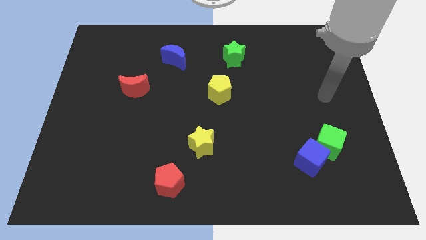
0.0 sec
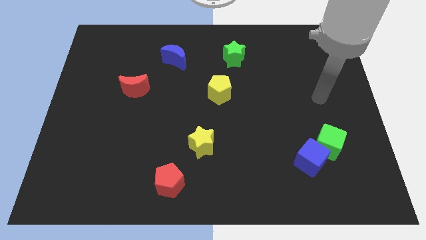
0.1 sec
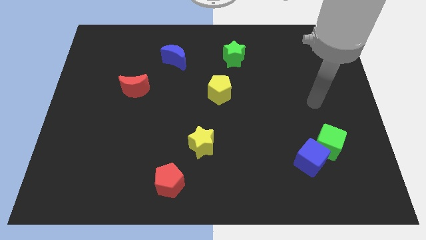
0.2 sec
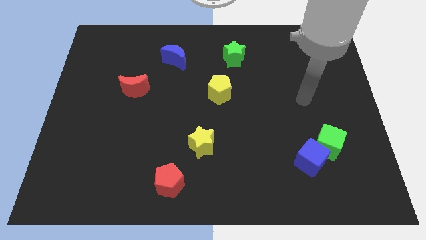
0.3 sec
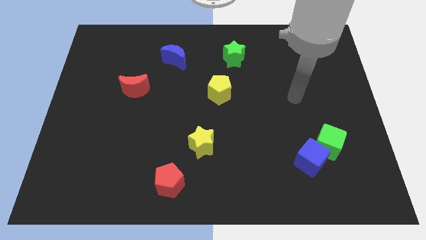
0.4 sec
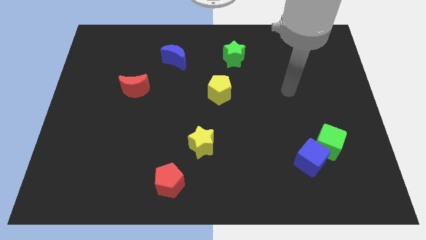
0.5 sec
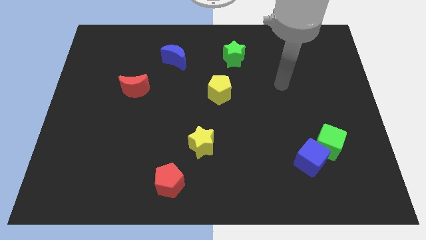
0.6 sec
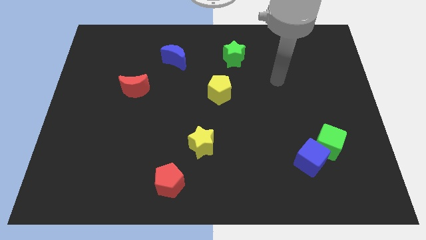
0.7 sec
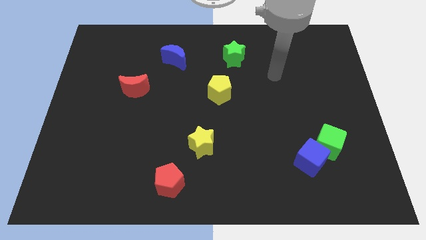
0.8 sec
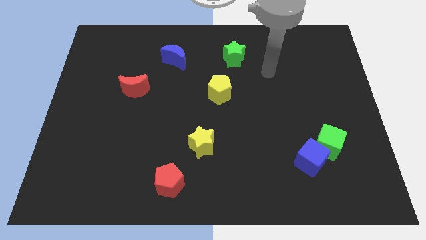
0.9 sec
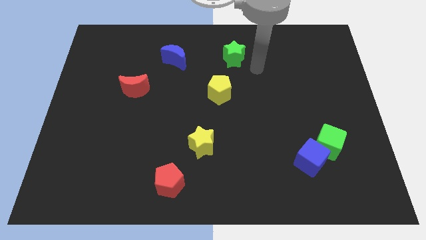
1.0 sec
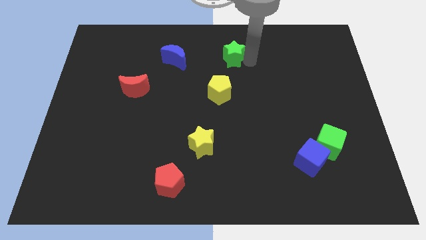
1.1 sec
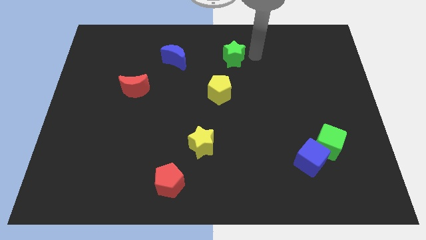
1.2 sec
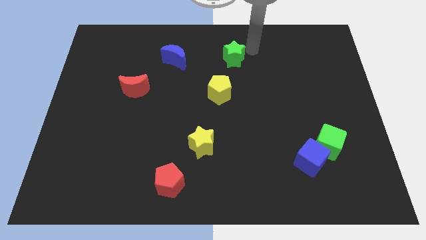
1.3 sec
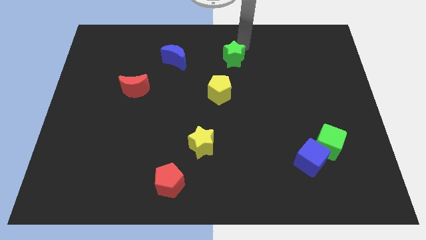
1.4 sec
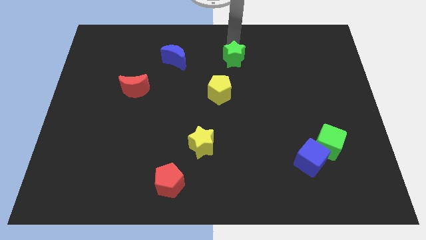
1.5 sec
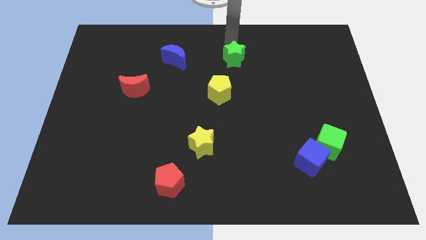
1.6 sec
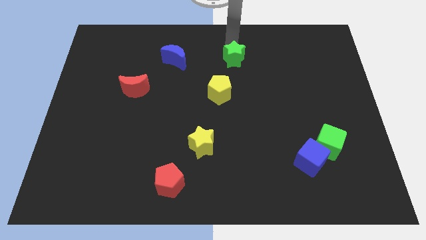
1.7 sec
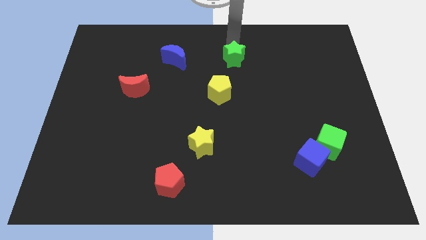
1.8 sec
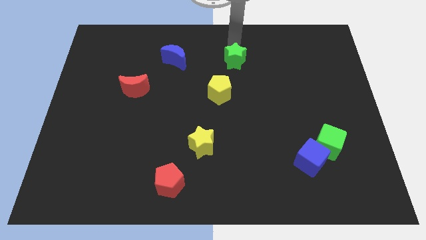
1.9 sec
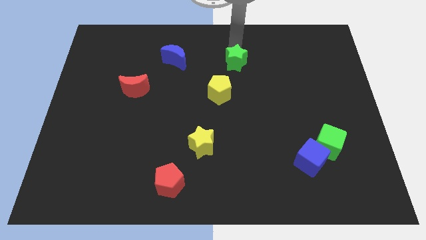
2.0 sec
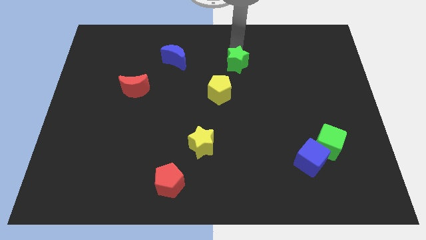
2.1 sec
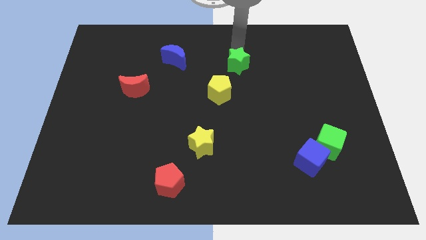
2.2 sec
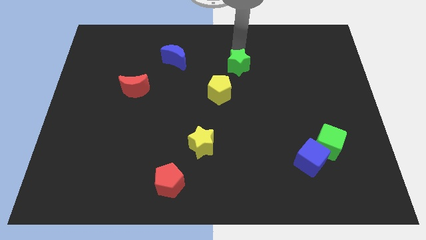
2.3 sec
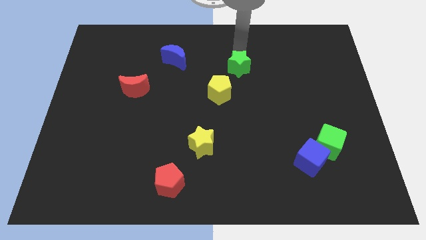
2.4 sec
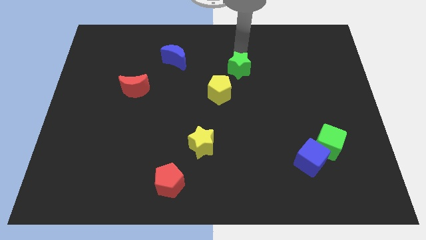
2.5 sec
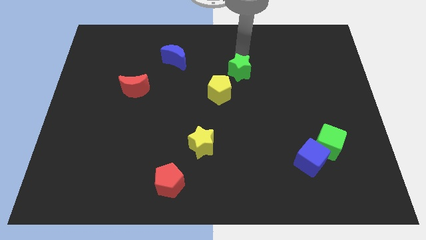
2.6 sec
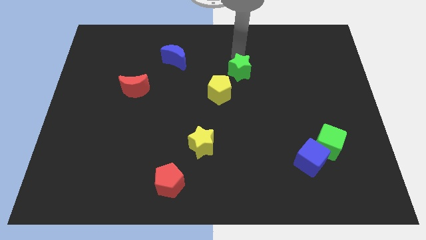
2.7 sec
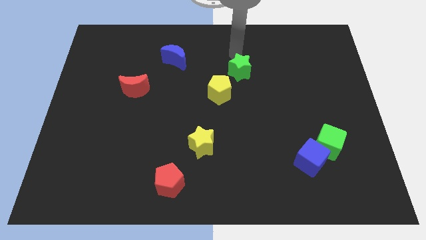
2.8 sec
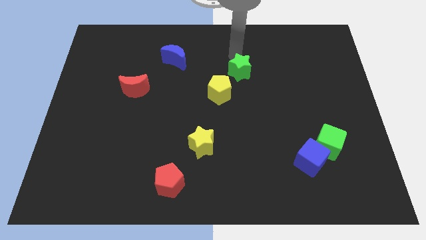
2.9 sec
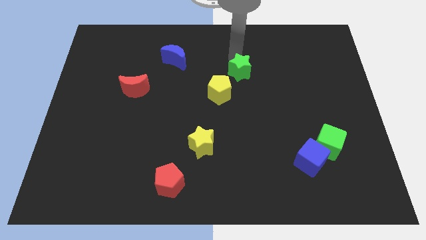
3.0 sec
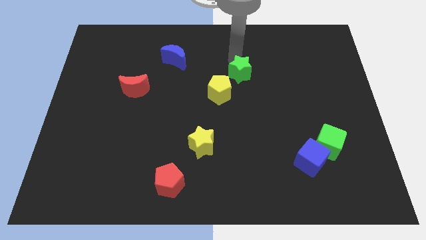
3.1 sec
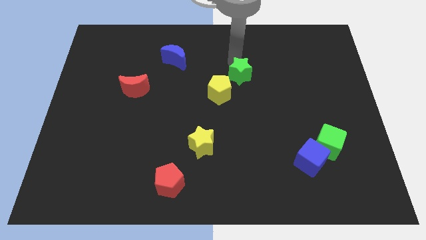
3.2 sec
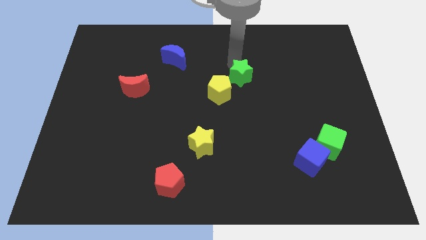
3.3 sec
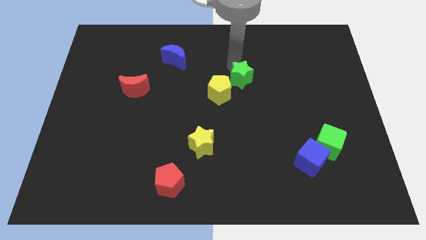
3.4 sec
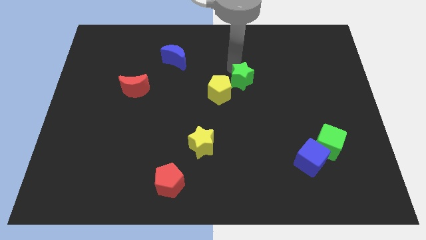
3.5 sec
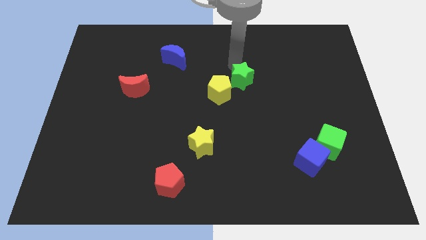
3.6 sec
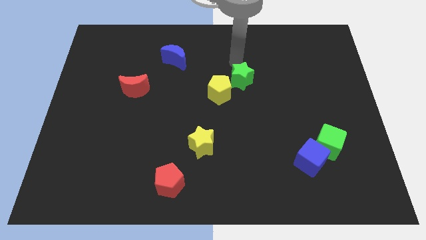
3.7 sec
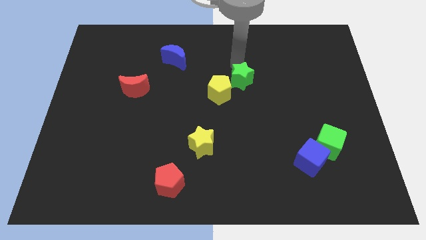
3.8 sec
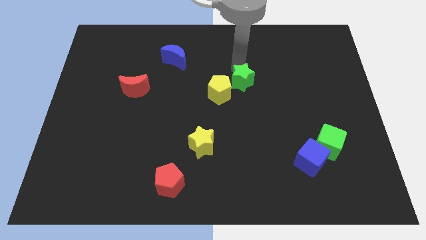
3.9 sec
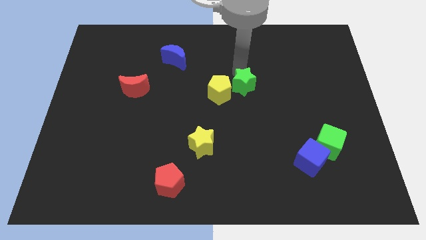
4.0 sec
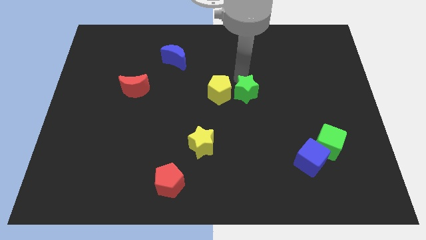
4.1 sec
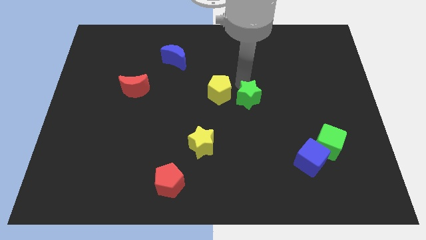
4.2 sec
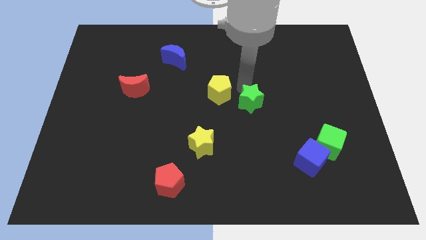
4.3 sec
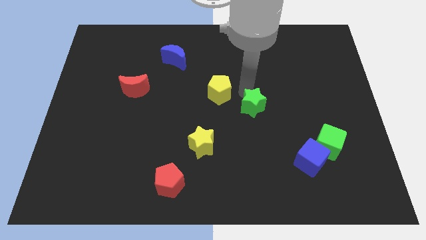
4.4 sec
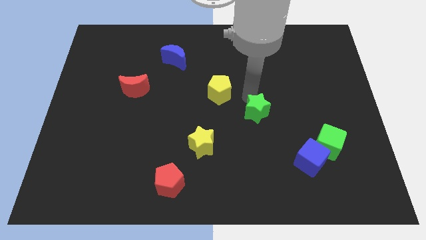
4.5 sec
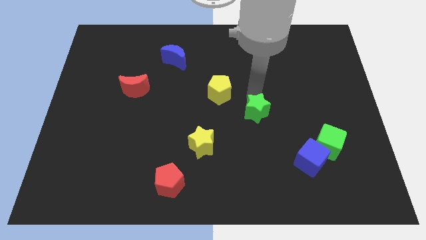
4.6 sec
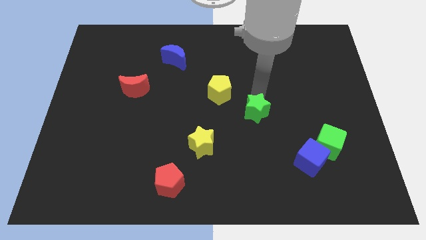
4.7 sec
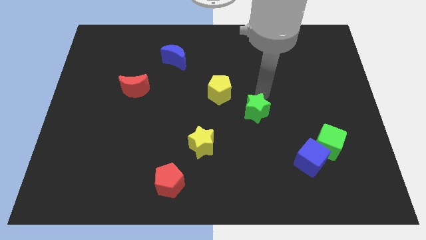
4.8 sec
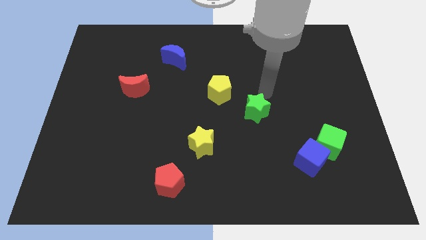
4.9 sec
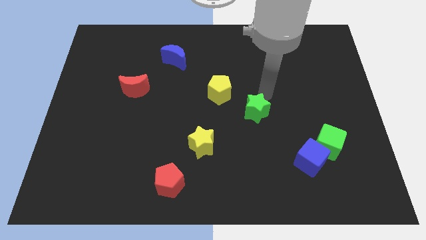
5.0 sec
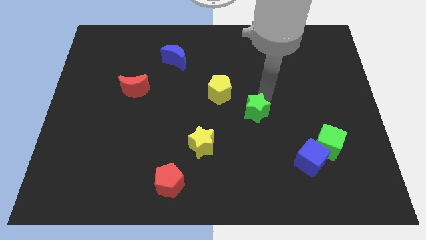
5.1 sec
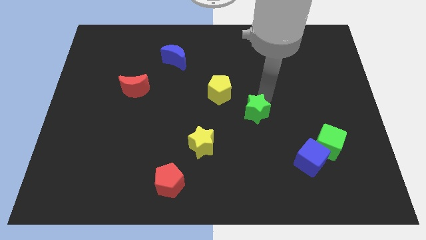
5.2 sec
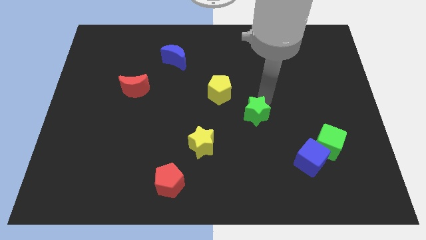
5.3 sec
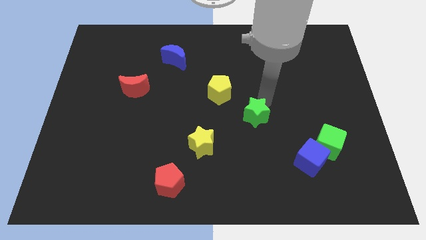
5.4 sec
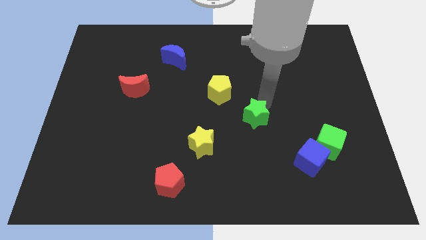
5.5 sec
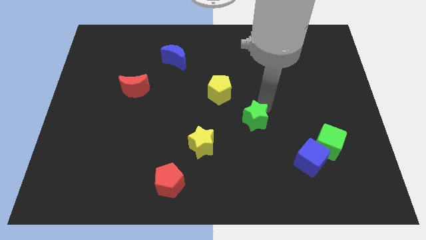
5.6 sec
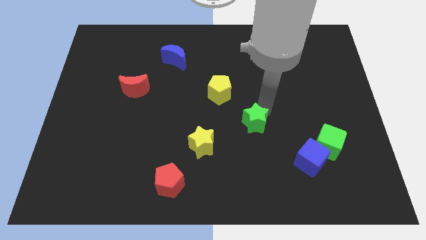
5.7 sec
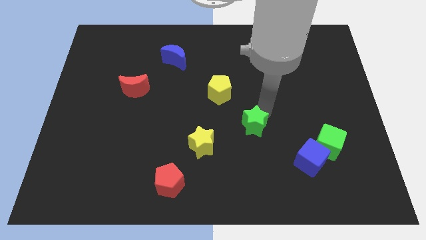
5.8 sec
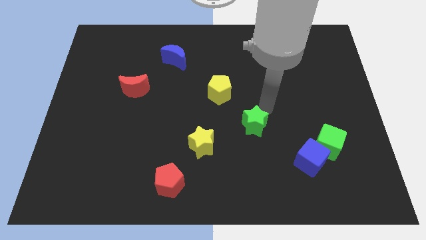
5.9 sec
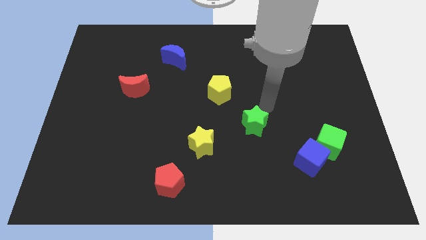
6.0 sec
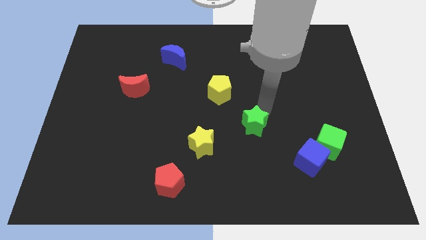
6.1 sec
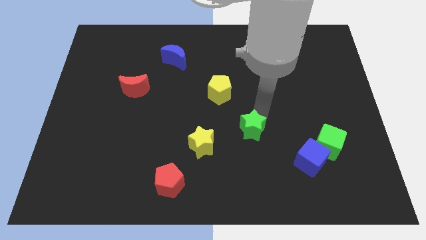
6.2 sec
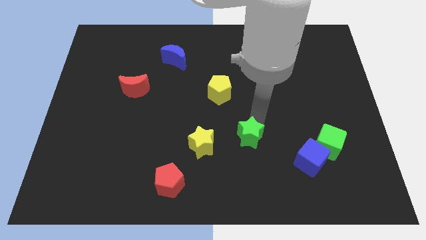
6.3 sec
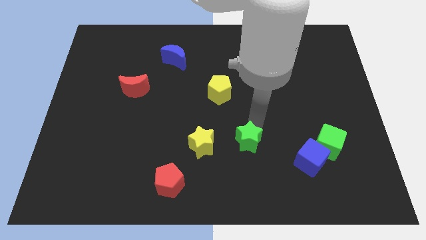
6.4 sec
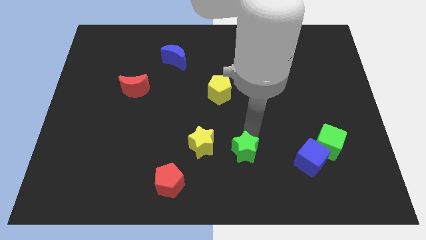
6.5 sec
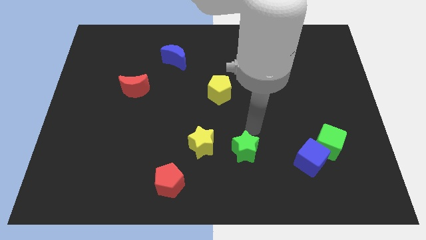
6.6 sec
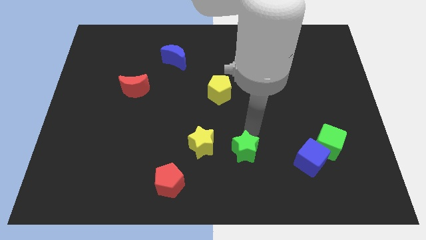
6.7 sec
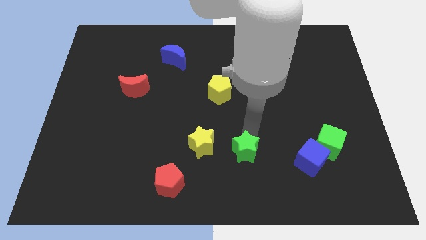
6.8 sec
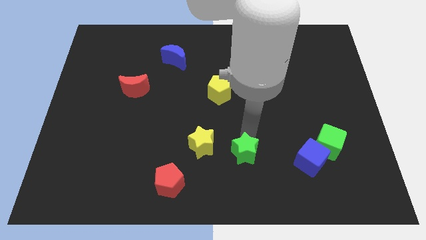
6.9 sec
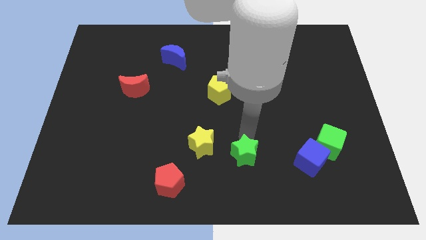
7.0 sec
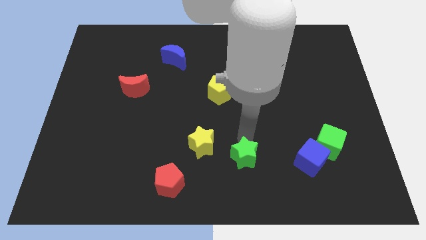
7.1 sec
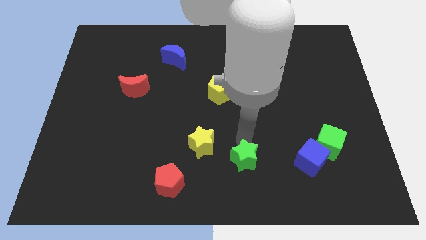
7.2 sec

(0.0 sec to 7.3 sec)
slide the green star to the bottom side

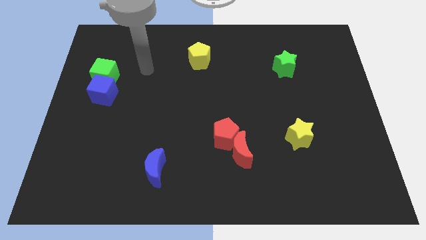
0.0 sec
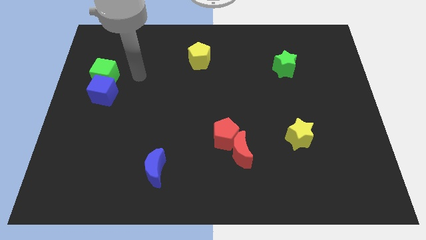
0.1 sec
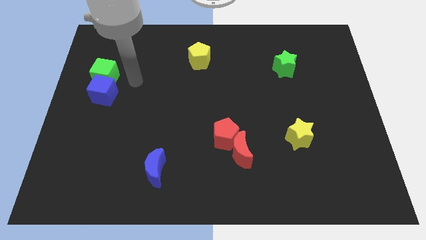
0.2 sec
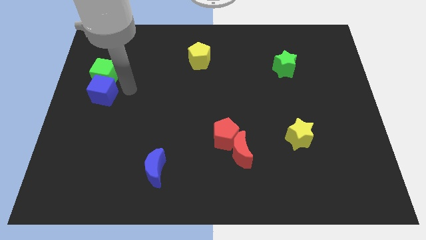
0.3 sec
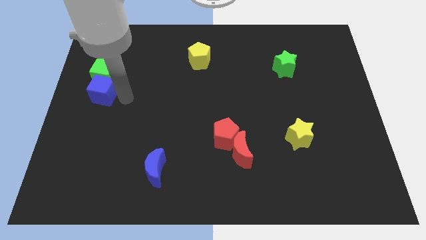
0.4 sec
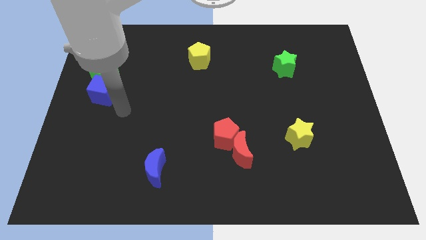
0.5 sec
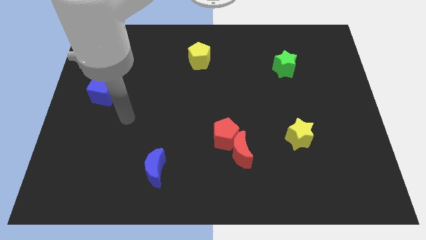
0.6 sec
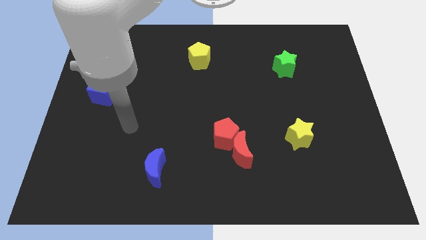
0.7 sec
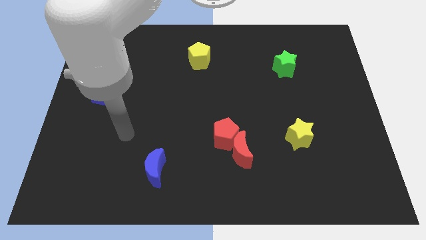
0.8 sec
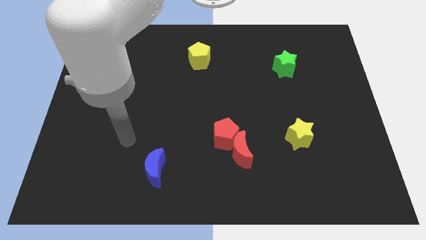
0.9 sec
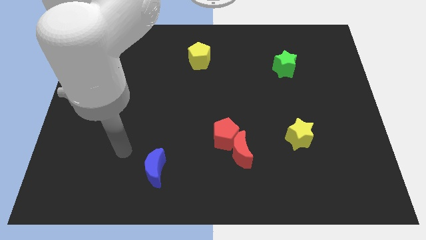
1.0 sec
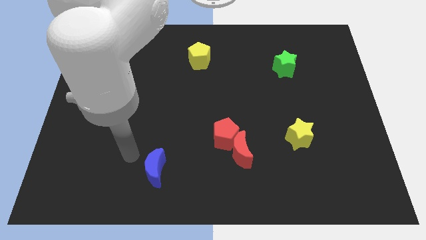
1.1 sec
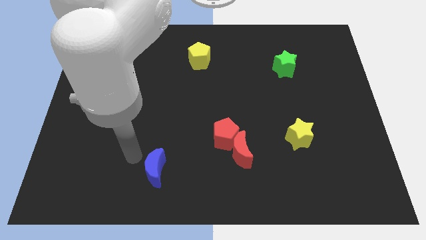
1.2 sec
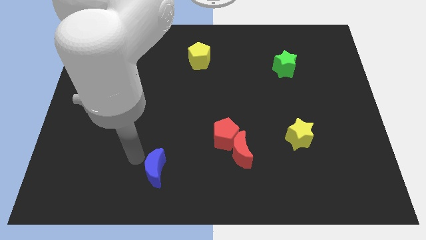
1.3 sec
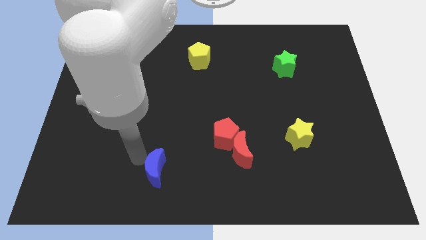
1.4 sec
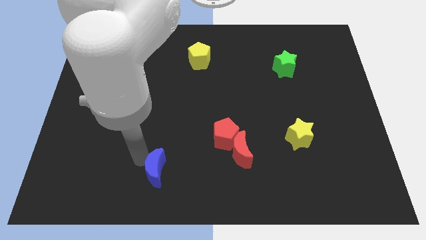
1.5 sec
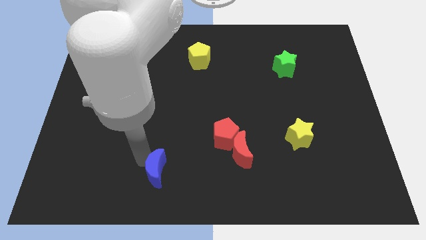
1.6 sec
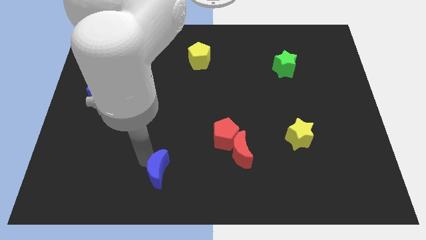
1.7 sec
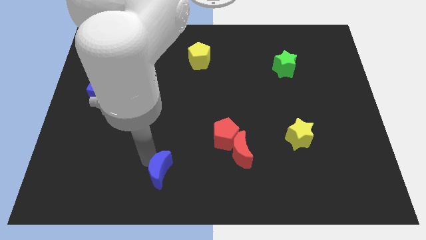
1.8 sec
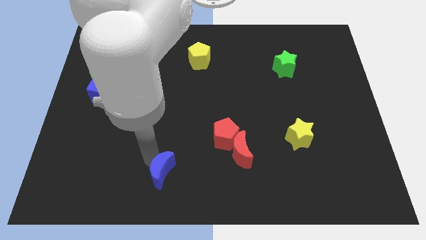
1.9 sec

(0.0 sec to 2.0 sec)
push the blue moon to the bottom
